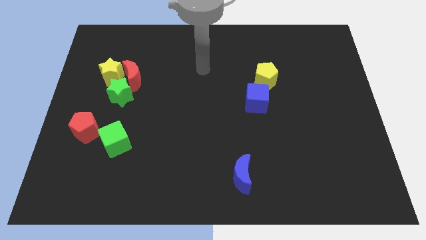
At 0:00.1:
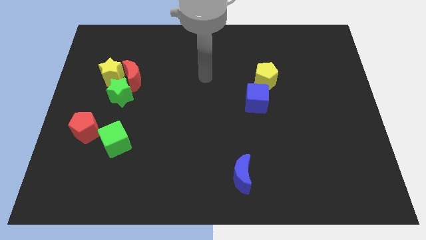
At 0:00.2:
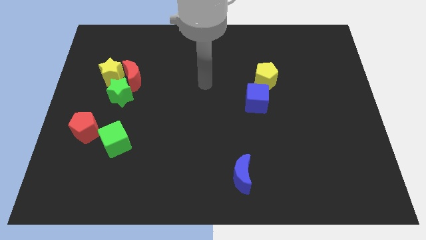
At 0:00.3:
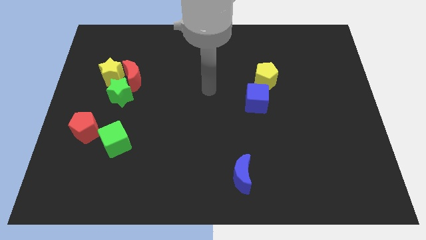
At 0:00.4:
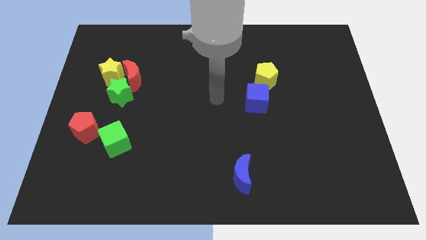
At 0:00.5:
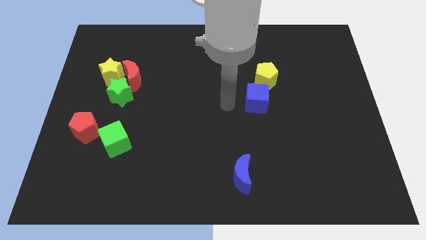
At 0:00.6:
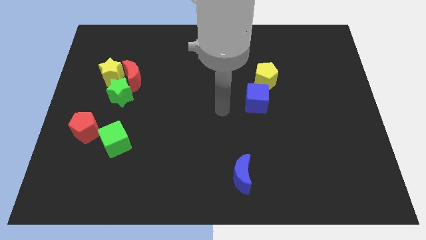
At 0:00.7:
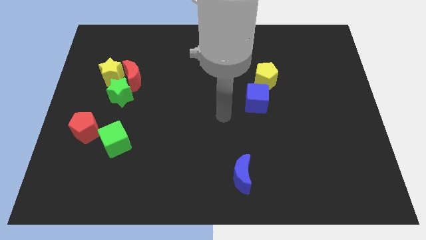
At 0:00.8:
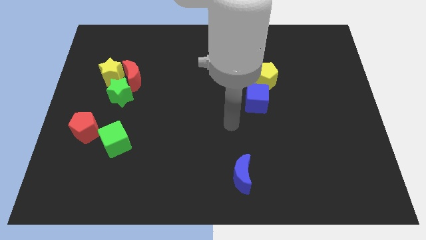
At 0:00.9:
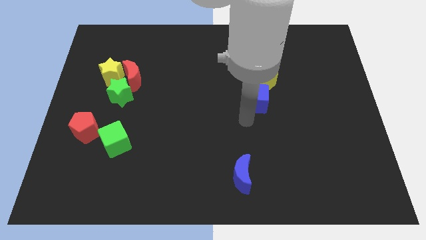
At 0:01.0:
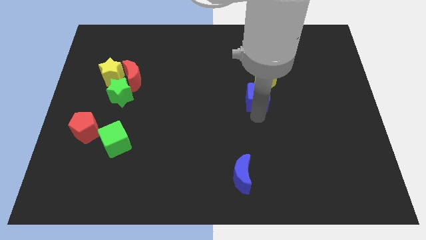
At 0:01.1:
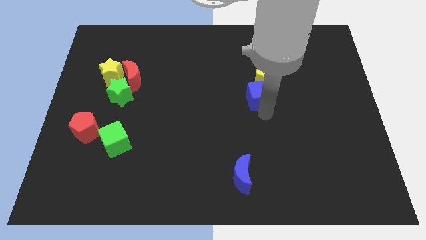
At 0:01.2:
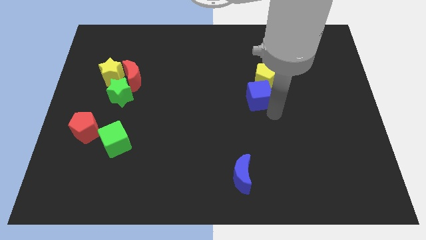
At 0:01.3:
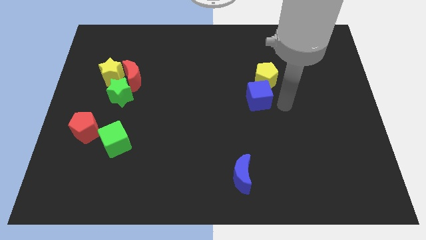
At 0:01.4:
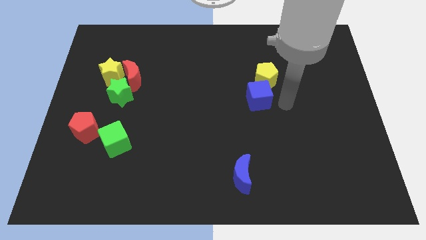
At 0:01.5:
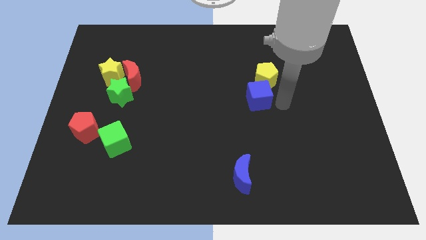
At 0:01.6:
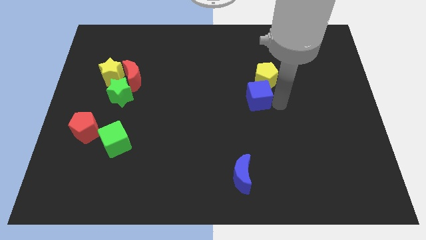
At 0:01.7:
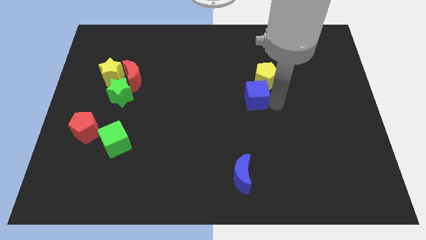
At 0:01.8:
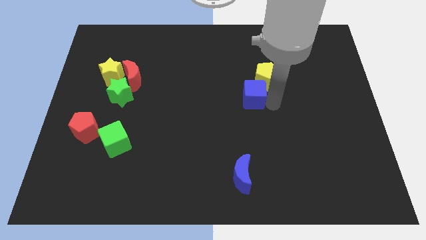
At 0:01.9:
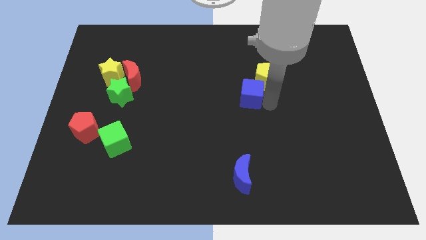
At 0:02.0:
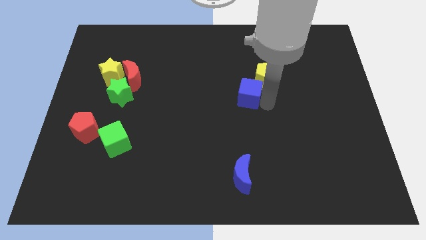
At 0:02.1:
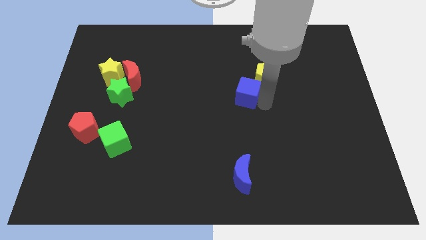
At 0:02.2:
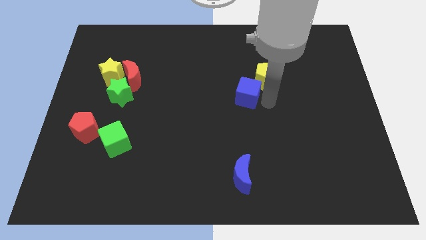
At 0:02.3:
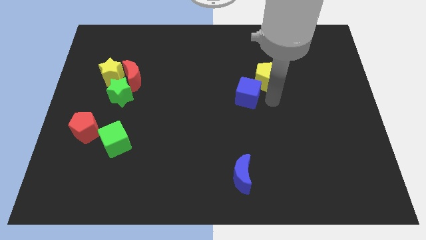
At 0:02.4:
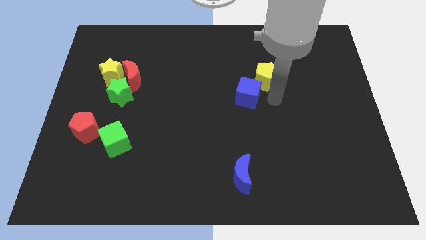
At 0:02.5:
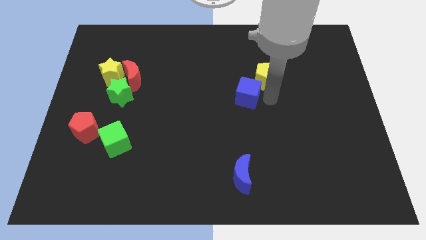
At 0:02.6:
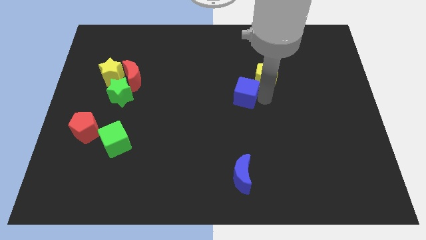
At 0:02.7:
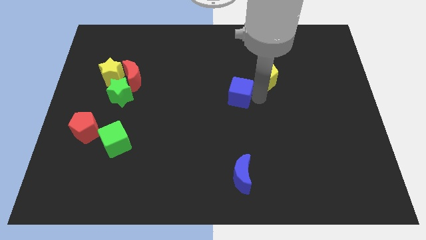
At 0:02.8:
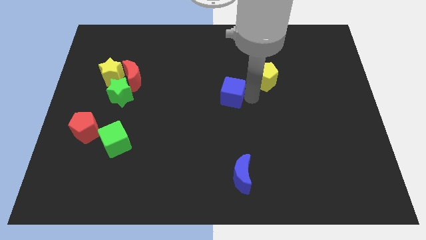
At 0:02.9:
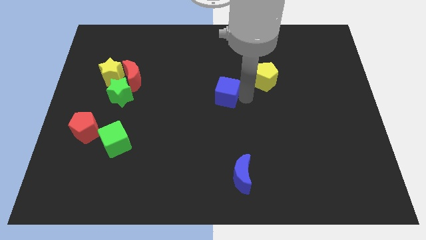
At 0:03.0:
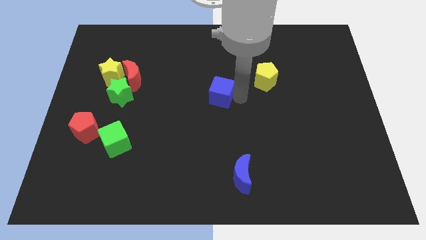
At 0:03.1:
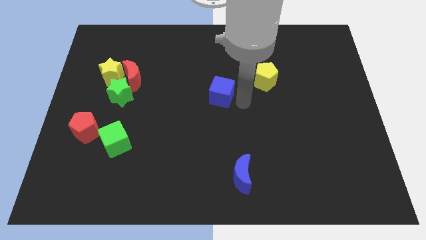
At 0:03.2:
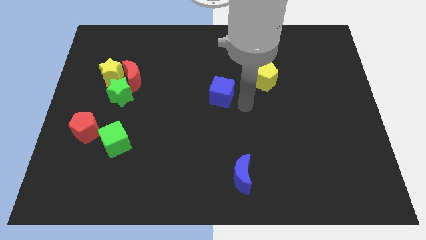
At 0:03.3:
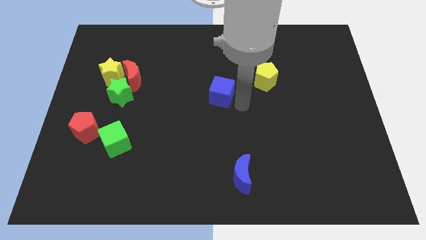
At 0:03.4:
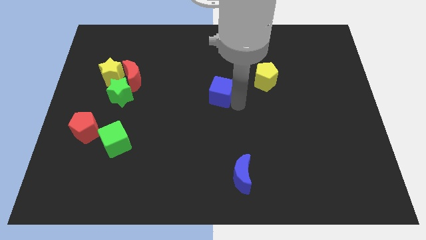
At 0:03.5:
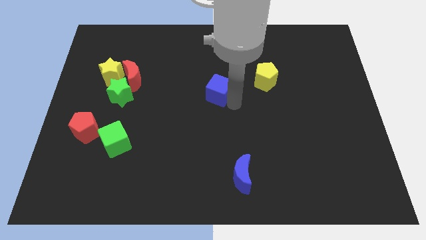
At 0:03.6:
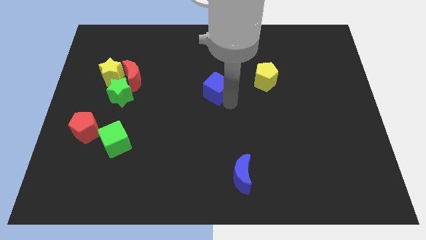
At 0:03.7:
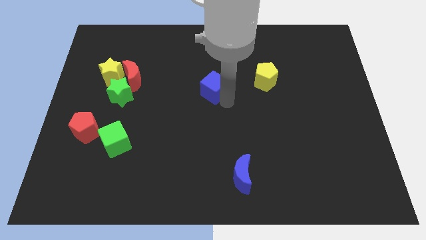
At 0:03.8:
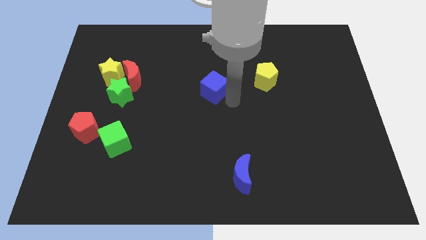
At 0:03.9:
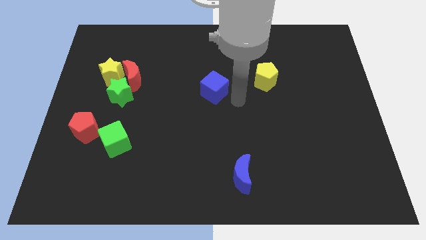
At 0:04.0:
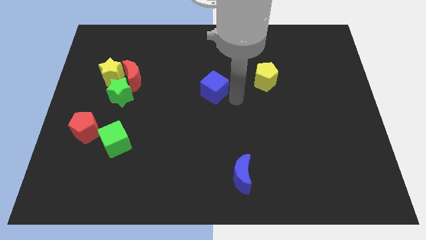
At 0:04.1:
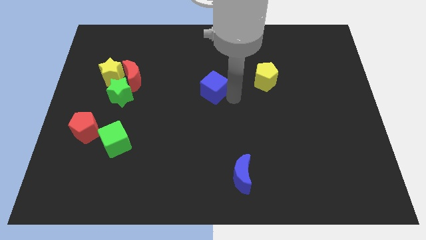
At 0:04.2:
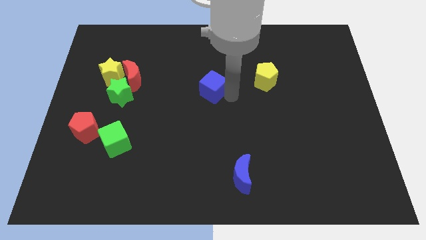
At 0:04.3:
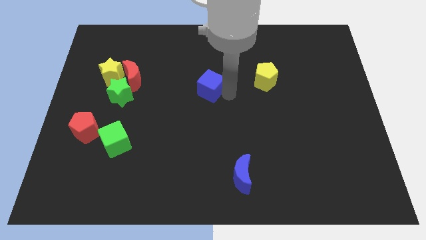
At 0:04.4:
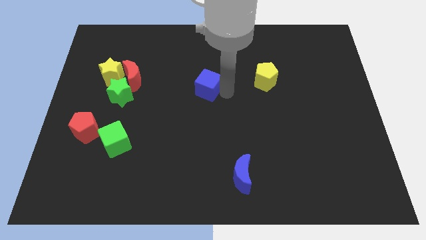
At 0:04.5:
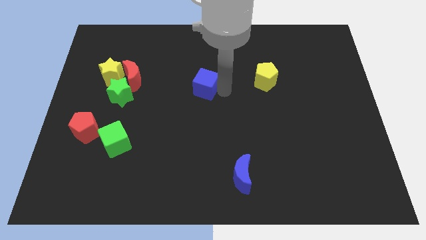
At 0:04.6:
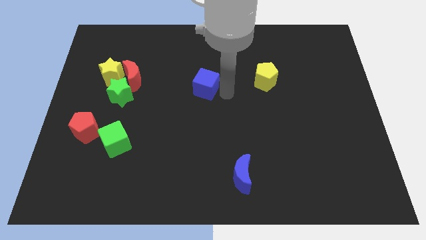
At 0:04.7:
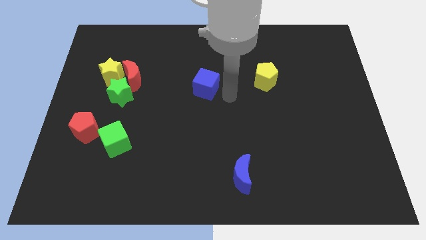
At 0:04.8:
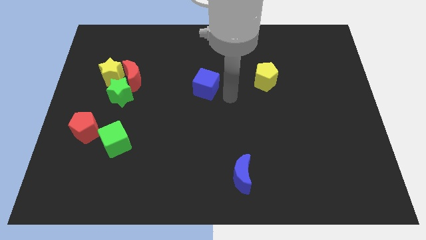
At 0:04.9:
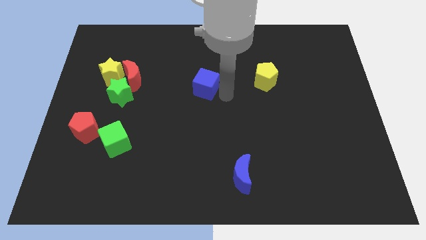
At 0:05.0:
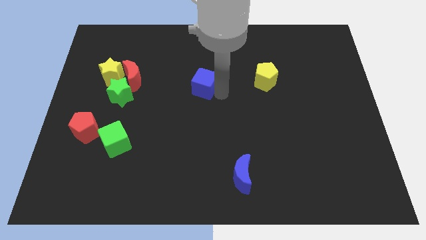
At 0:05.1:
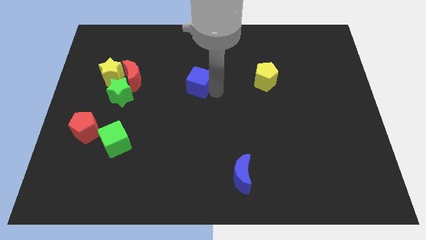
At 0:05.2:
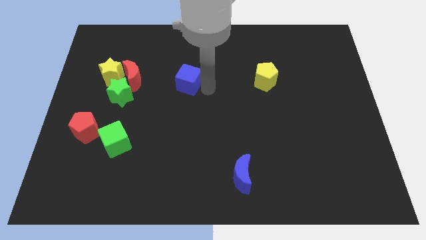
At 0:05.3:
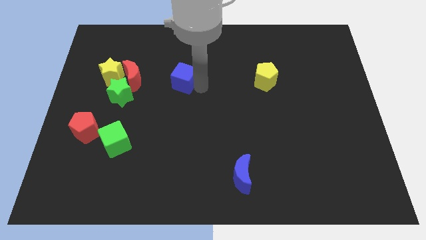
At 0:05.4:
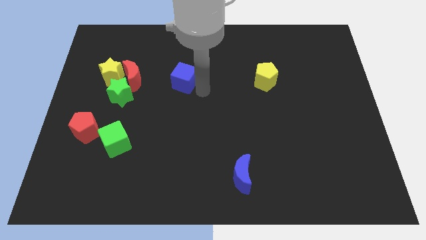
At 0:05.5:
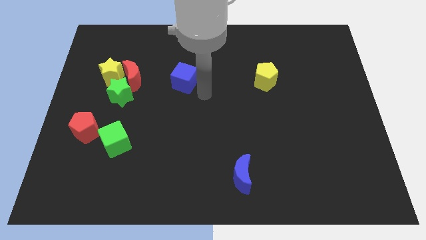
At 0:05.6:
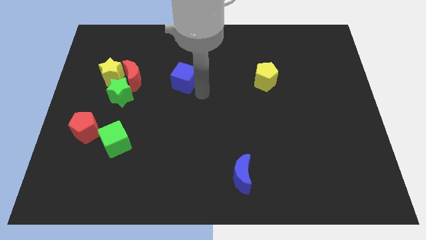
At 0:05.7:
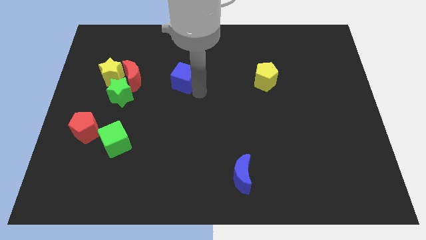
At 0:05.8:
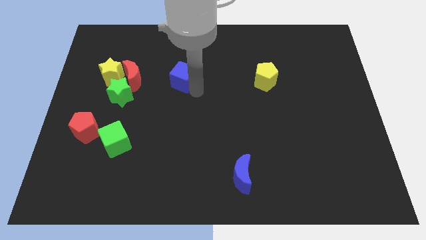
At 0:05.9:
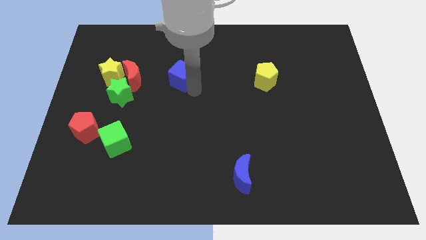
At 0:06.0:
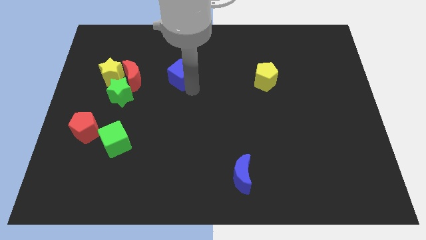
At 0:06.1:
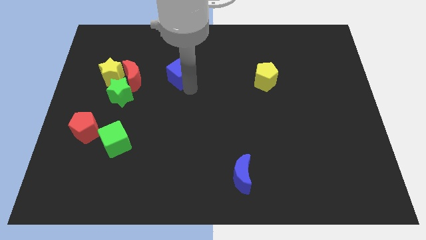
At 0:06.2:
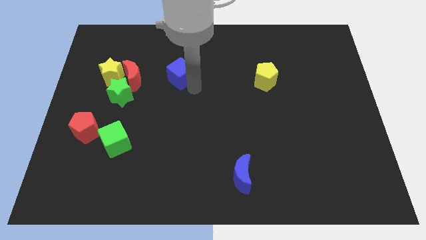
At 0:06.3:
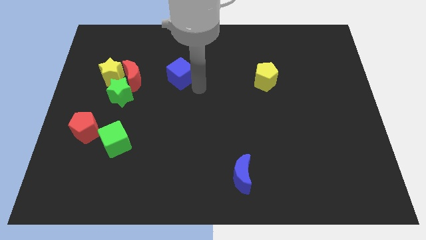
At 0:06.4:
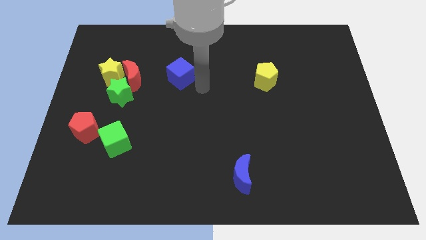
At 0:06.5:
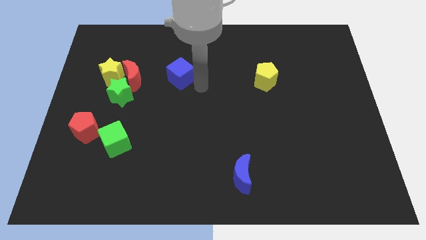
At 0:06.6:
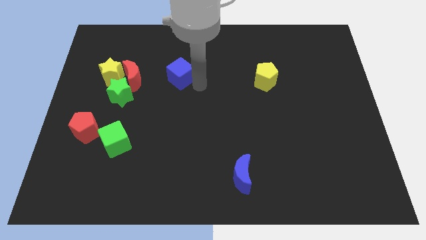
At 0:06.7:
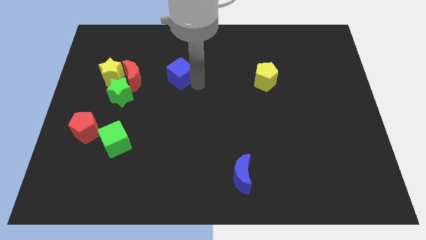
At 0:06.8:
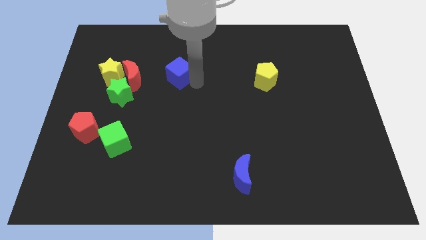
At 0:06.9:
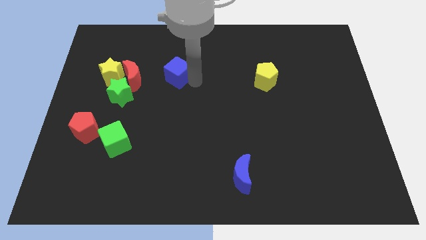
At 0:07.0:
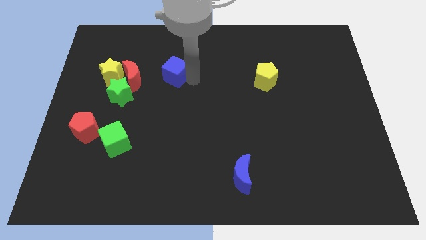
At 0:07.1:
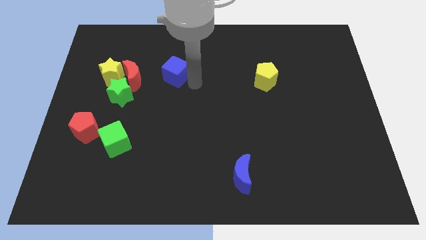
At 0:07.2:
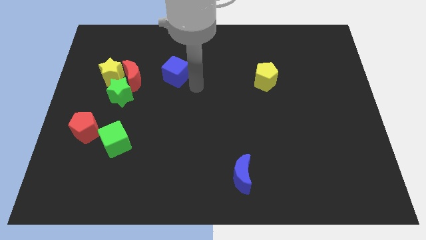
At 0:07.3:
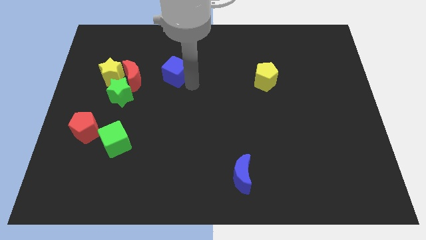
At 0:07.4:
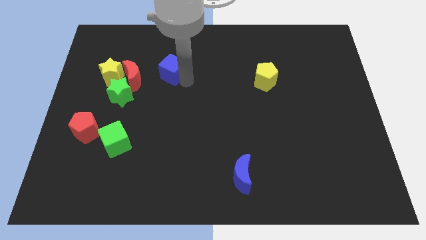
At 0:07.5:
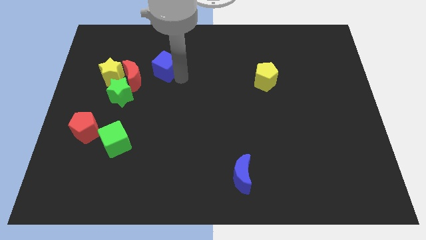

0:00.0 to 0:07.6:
push the blue cube to the top right side of the red moon
